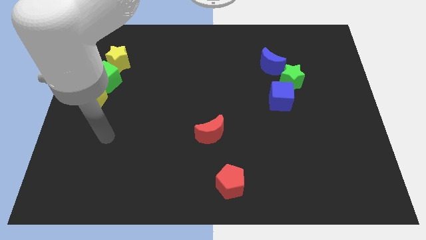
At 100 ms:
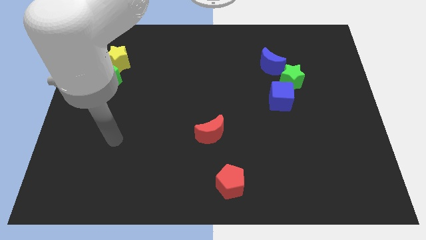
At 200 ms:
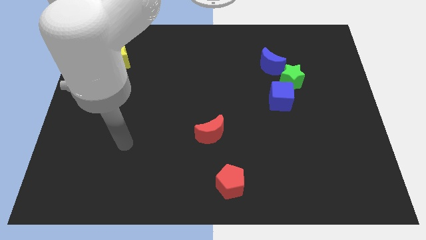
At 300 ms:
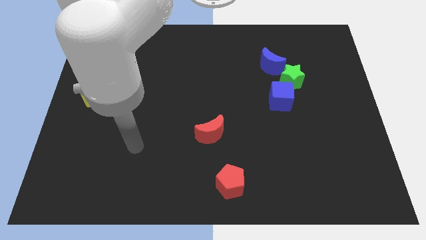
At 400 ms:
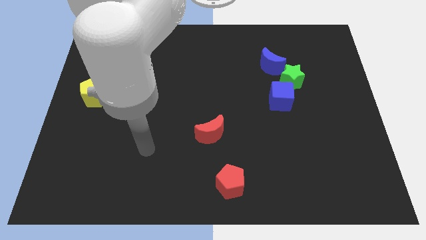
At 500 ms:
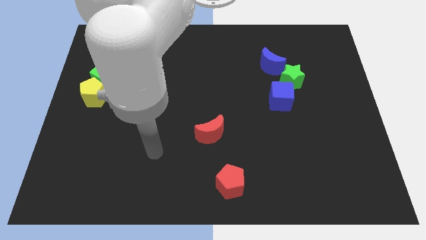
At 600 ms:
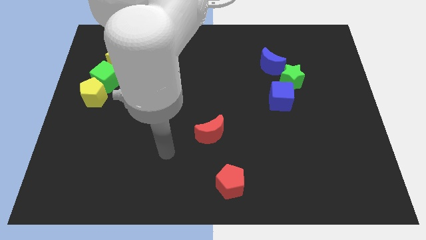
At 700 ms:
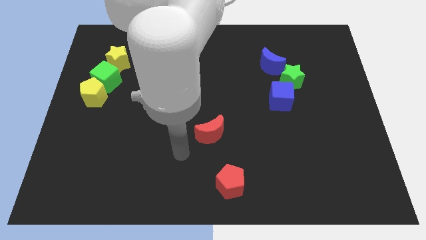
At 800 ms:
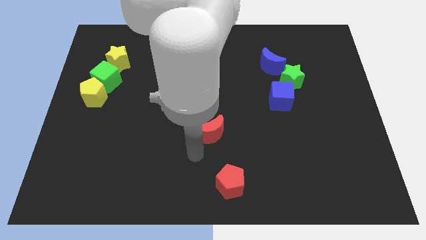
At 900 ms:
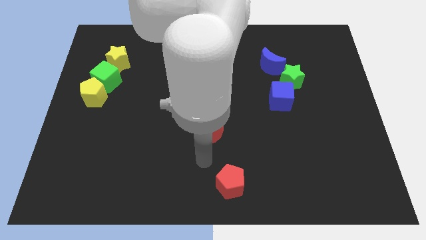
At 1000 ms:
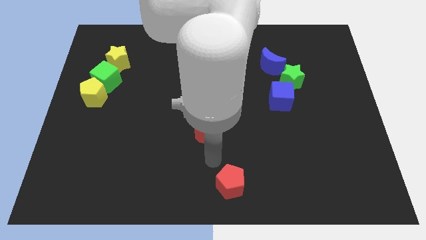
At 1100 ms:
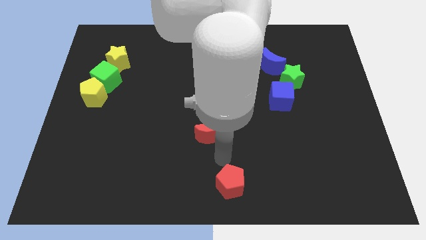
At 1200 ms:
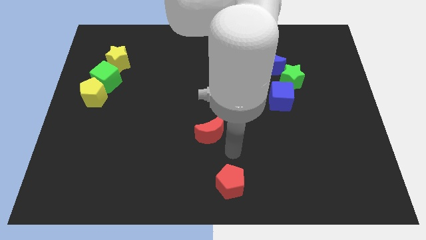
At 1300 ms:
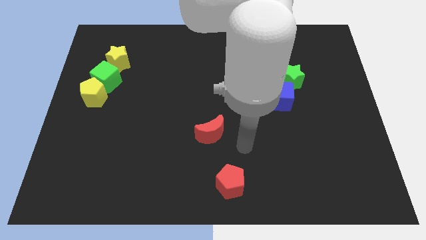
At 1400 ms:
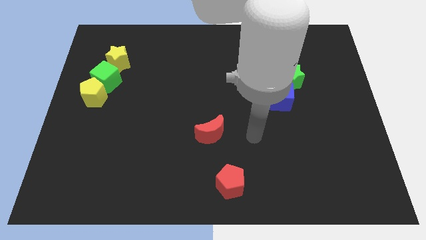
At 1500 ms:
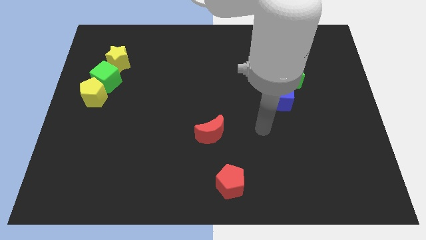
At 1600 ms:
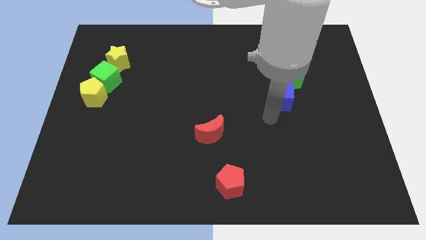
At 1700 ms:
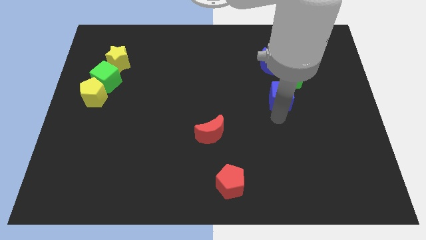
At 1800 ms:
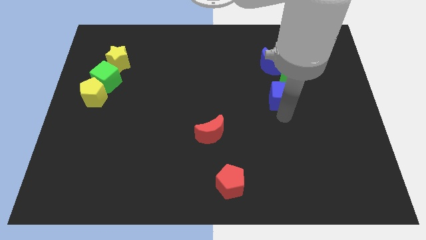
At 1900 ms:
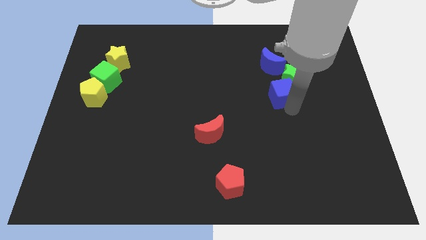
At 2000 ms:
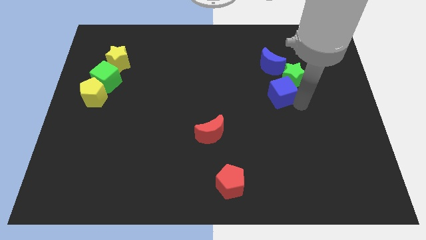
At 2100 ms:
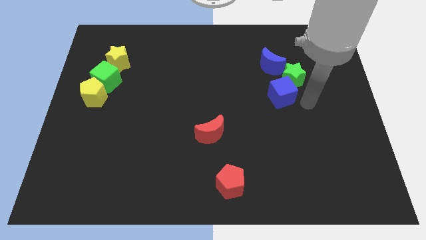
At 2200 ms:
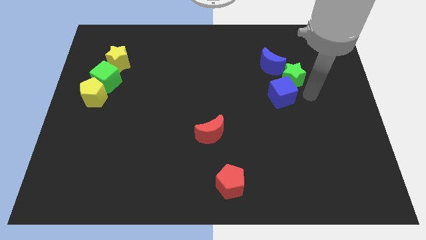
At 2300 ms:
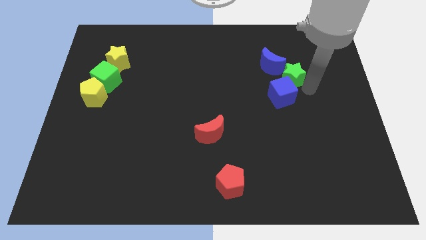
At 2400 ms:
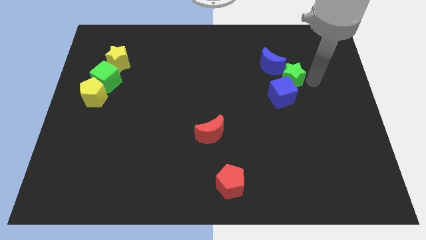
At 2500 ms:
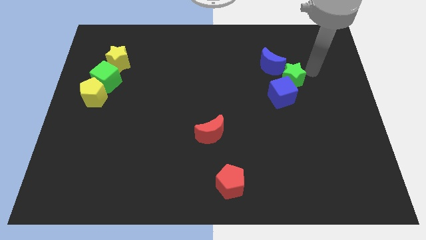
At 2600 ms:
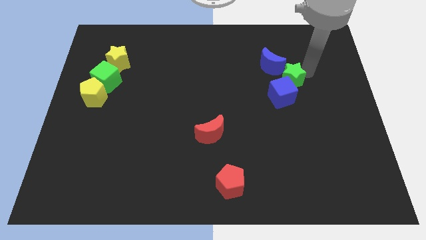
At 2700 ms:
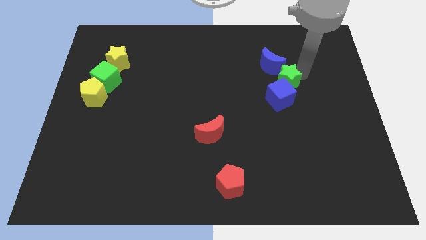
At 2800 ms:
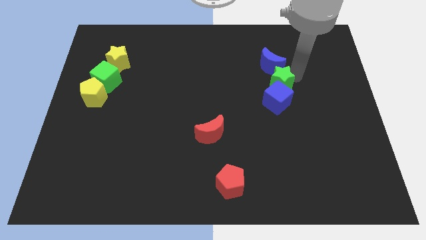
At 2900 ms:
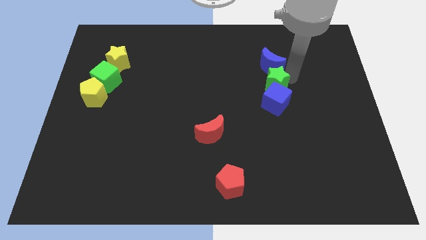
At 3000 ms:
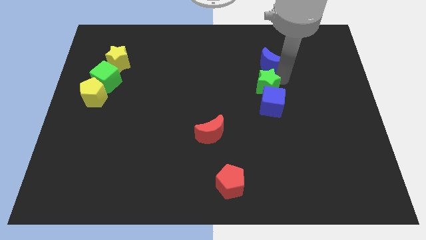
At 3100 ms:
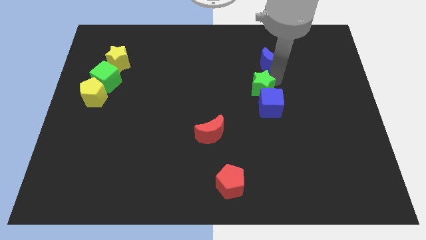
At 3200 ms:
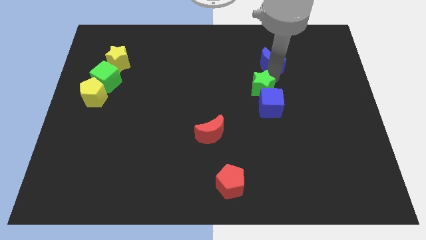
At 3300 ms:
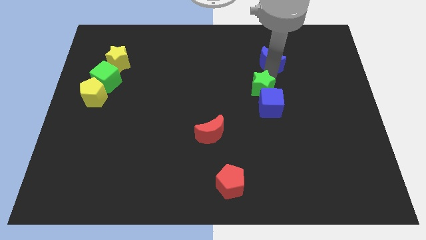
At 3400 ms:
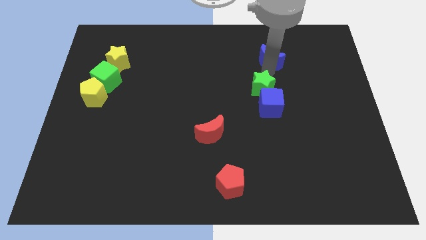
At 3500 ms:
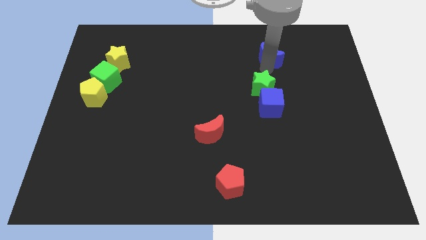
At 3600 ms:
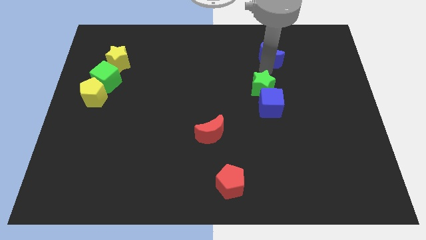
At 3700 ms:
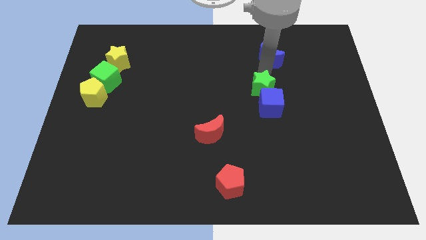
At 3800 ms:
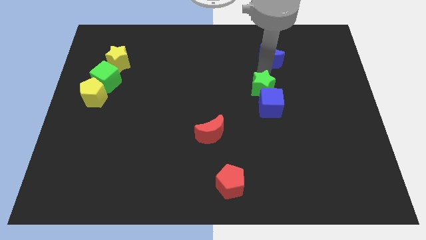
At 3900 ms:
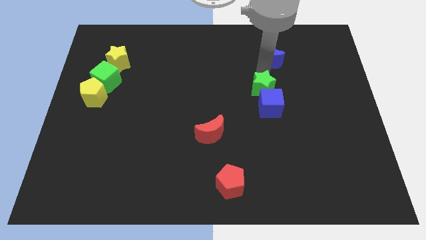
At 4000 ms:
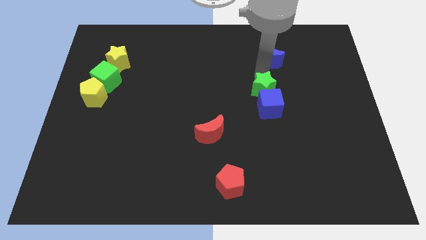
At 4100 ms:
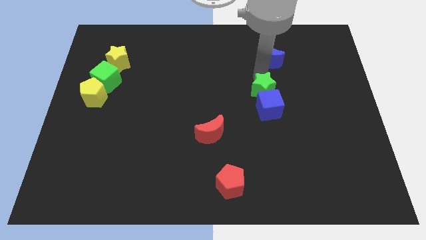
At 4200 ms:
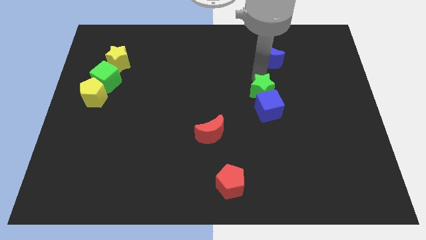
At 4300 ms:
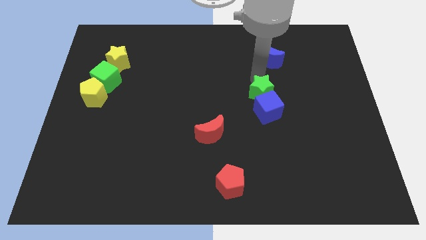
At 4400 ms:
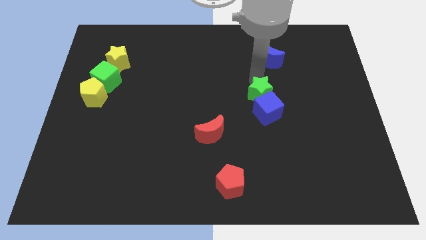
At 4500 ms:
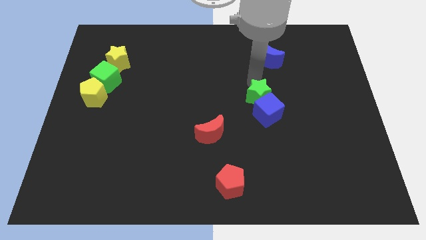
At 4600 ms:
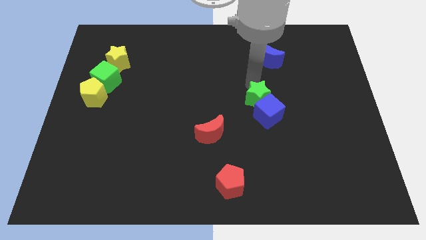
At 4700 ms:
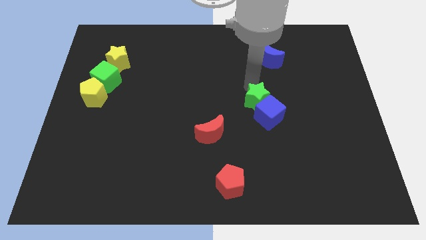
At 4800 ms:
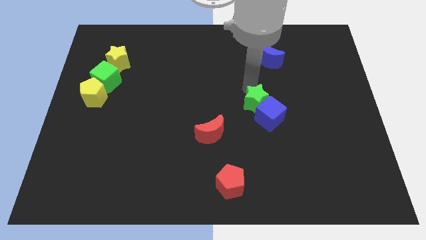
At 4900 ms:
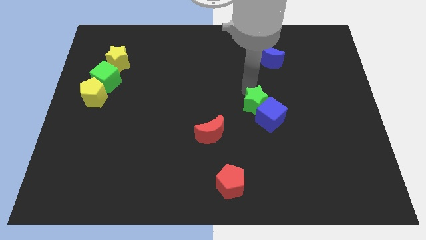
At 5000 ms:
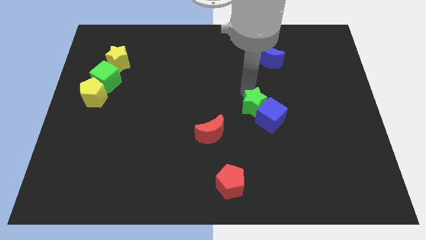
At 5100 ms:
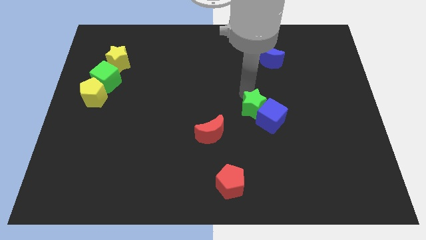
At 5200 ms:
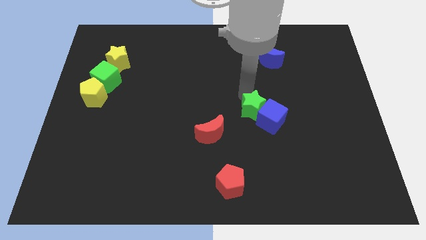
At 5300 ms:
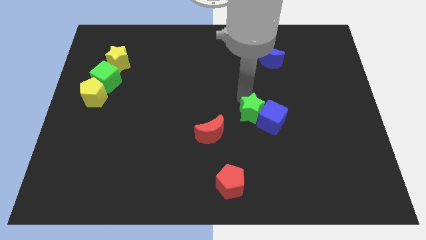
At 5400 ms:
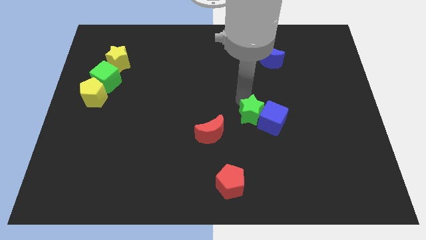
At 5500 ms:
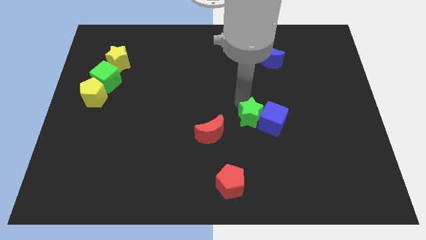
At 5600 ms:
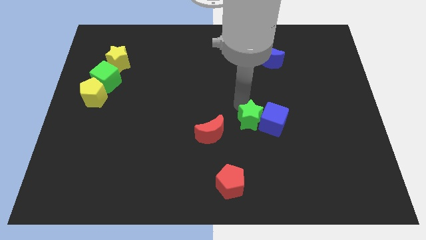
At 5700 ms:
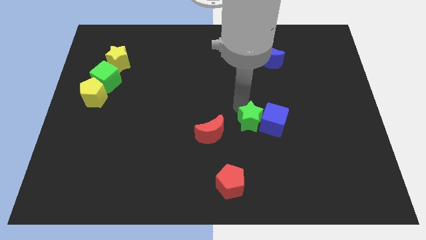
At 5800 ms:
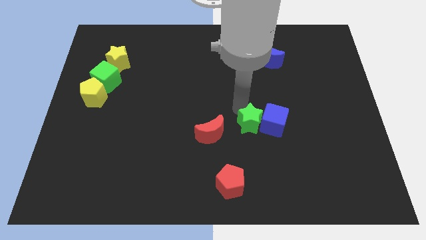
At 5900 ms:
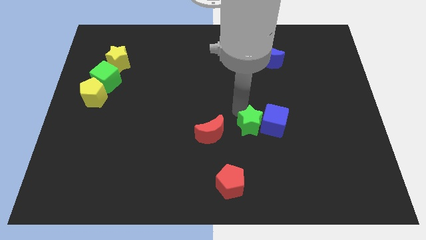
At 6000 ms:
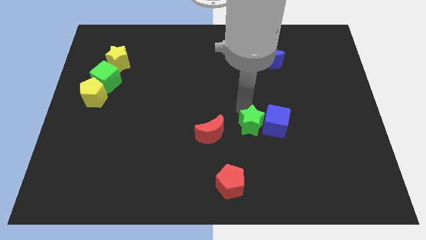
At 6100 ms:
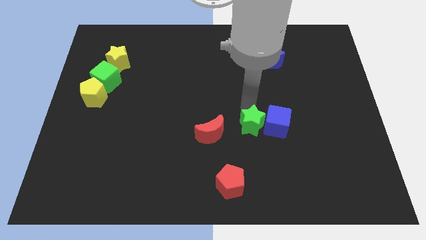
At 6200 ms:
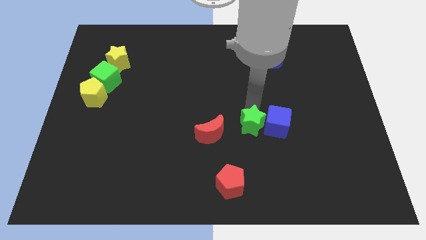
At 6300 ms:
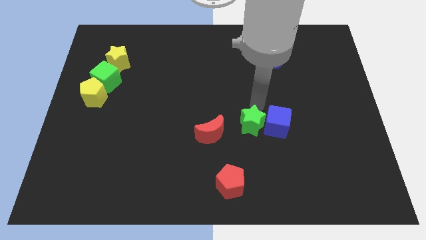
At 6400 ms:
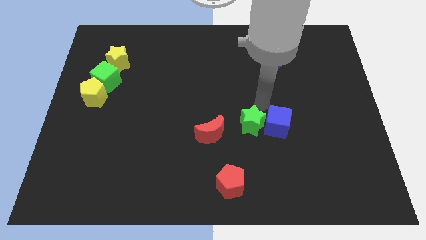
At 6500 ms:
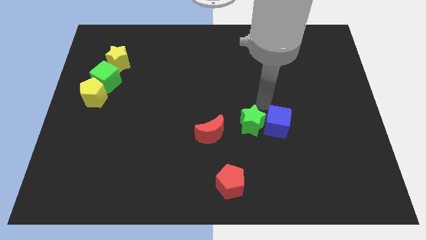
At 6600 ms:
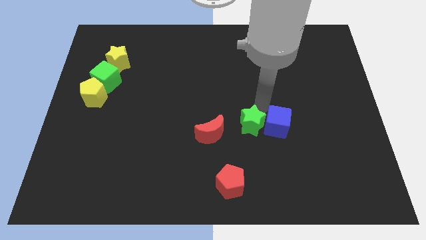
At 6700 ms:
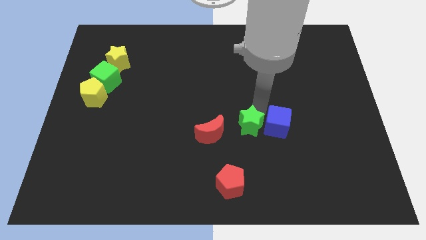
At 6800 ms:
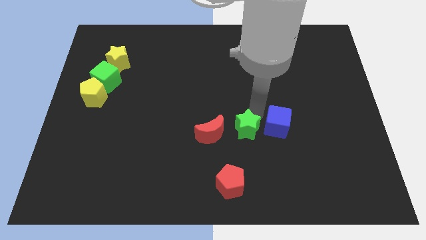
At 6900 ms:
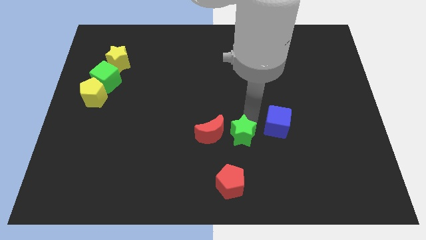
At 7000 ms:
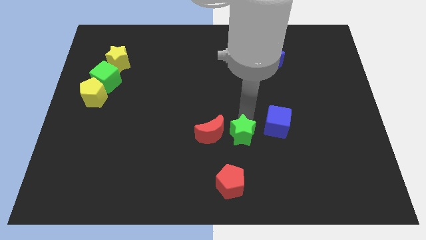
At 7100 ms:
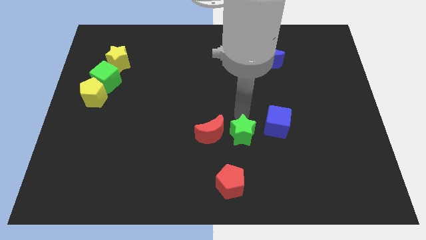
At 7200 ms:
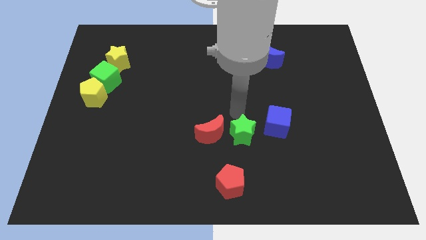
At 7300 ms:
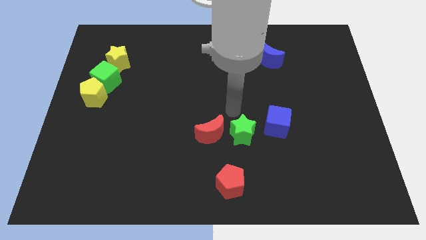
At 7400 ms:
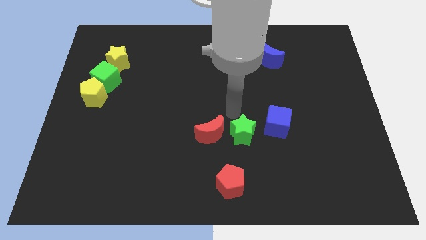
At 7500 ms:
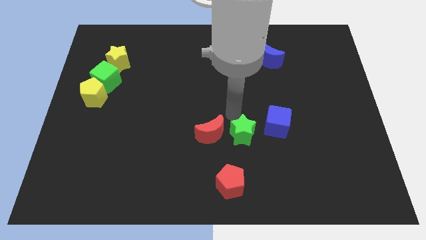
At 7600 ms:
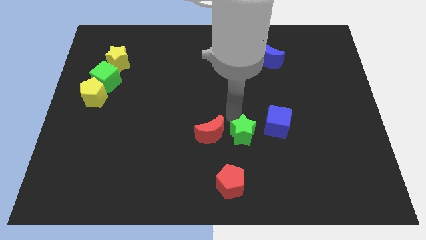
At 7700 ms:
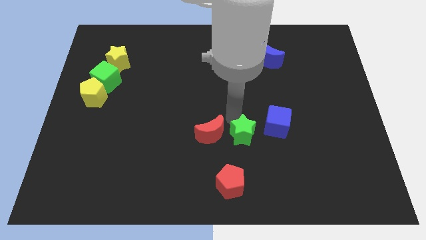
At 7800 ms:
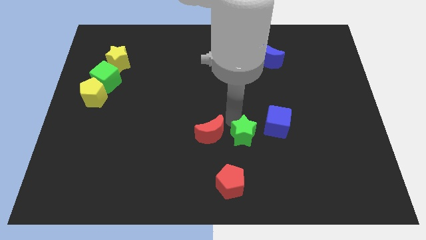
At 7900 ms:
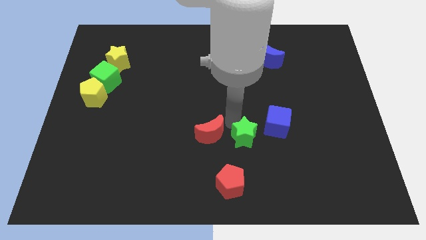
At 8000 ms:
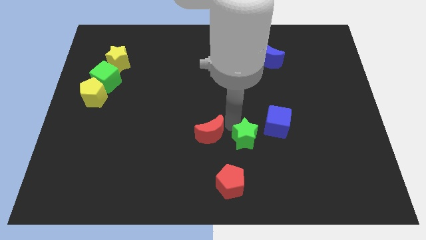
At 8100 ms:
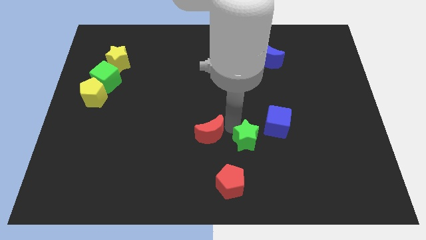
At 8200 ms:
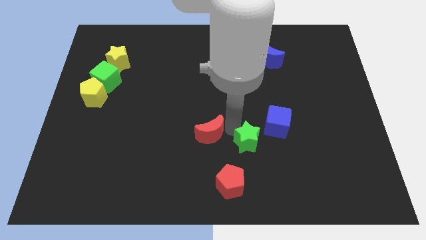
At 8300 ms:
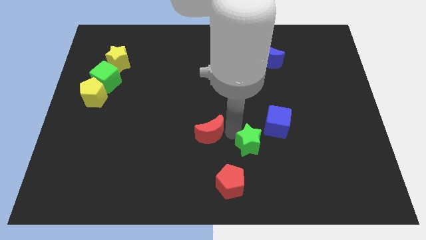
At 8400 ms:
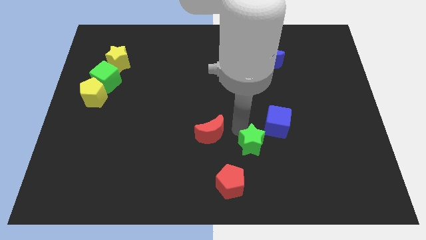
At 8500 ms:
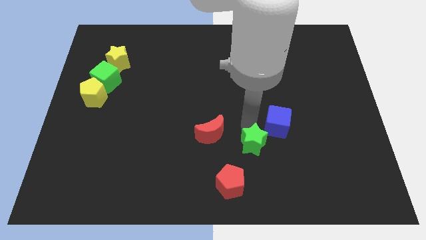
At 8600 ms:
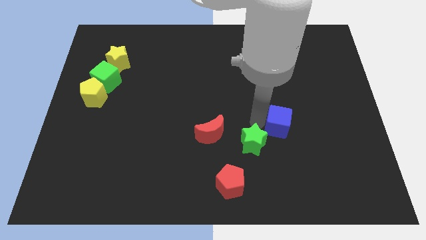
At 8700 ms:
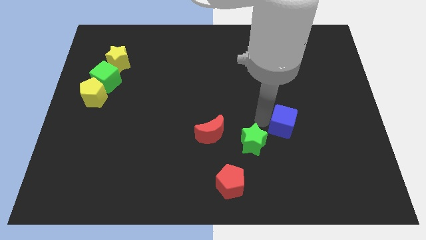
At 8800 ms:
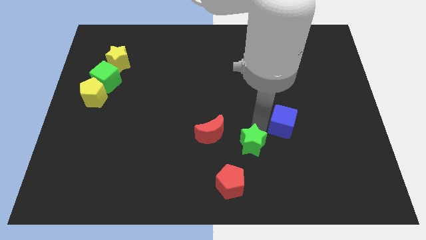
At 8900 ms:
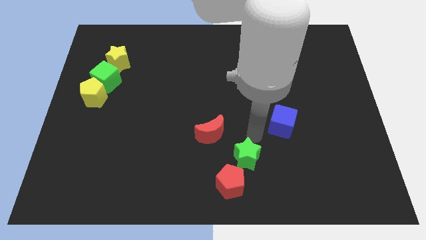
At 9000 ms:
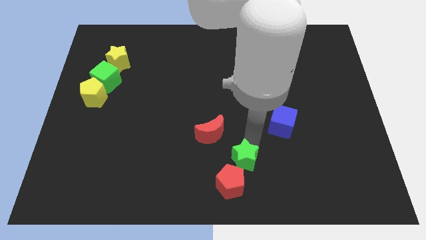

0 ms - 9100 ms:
move the green star next to the red pentagon
